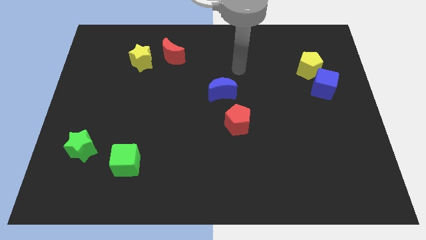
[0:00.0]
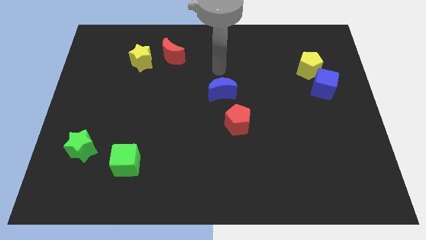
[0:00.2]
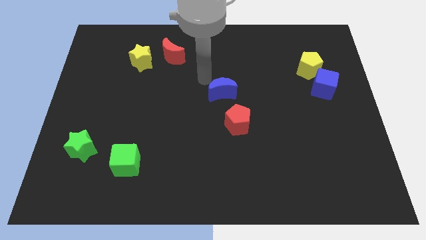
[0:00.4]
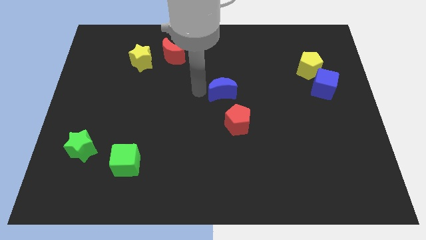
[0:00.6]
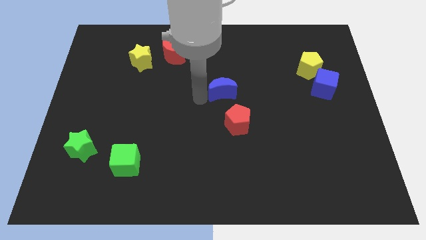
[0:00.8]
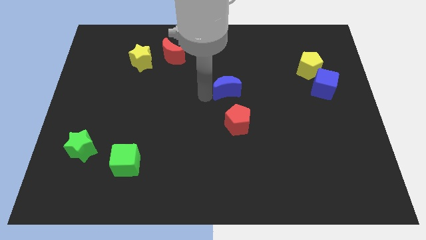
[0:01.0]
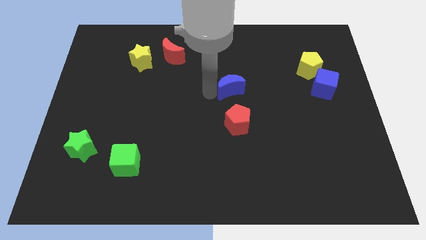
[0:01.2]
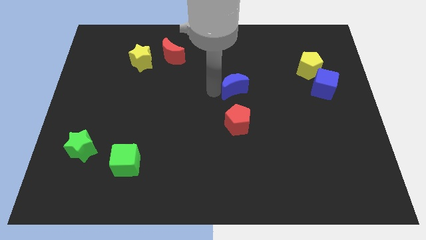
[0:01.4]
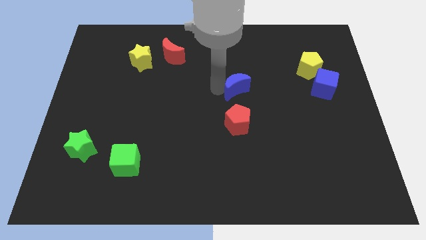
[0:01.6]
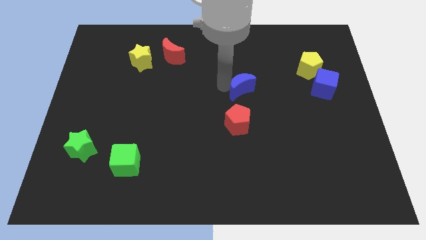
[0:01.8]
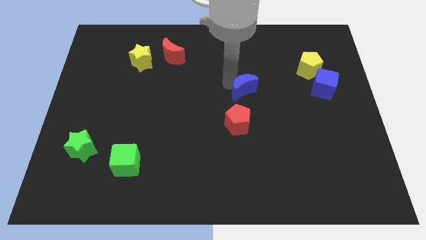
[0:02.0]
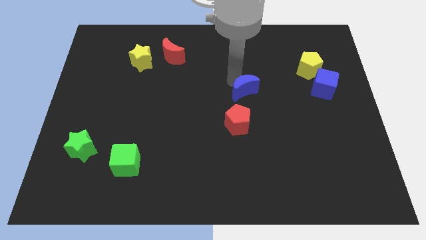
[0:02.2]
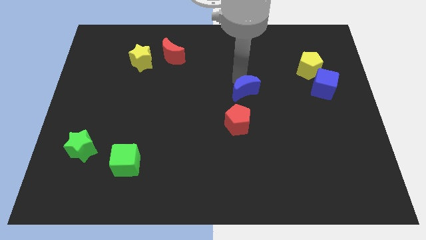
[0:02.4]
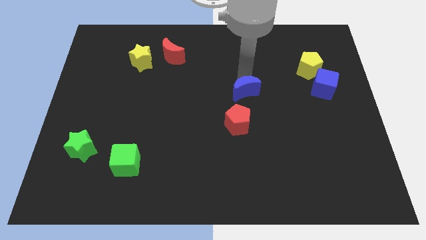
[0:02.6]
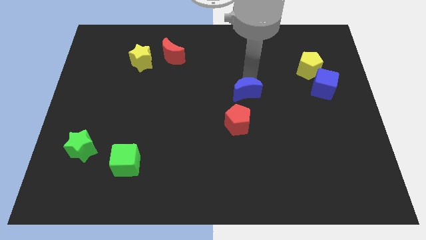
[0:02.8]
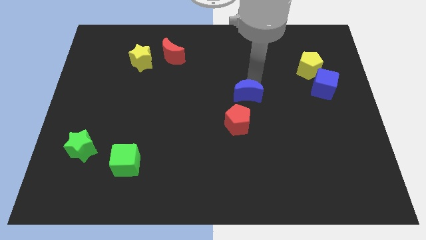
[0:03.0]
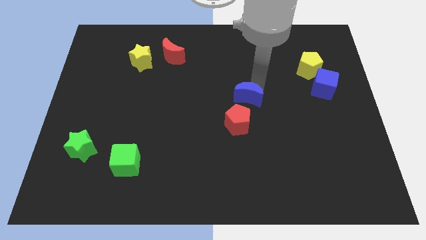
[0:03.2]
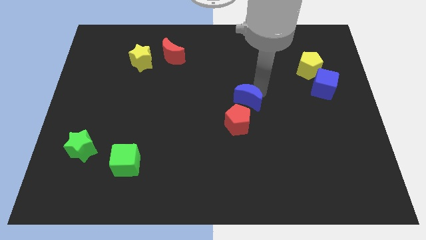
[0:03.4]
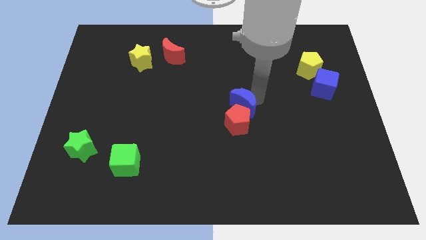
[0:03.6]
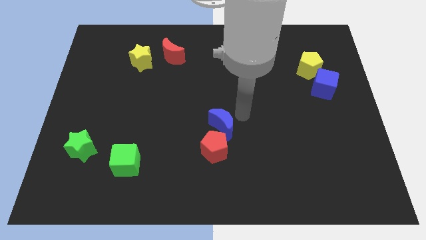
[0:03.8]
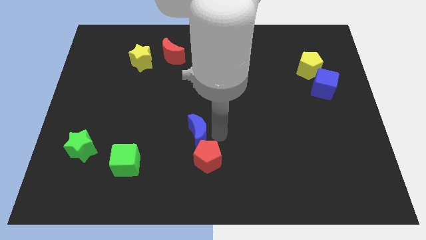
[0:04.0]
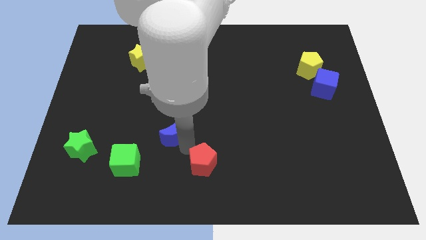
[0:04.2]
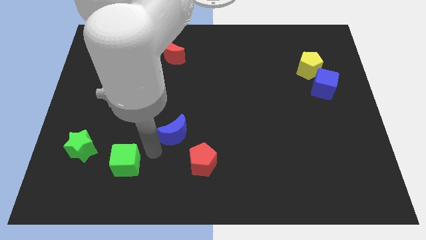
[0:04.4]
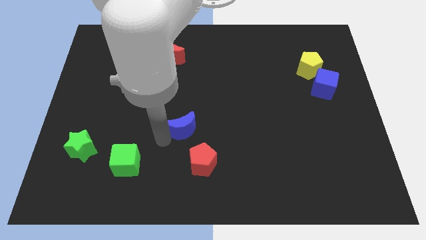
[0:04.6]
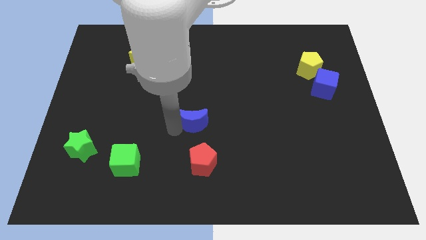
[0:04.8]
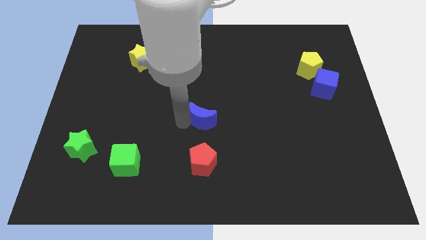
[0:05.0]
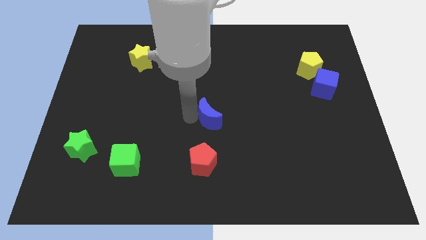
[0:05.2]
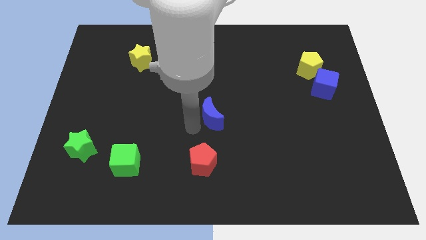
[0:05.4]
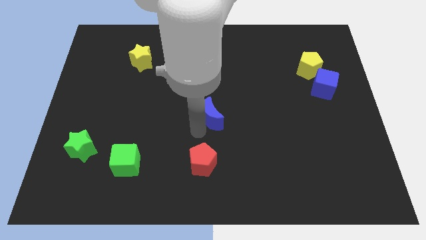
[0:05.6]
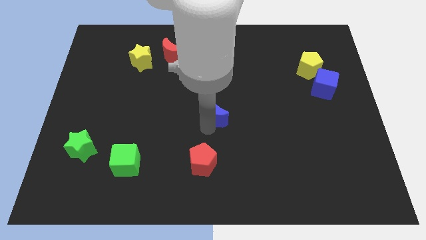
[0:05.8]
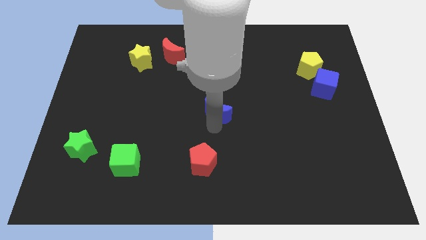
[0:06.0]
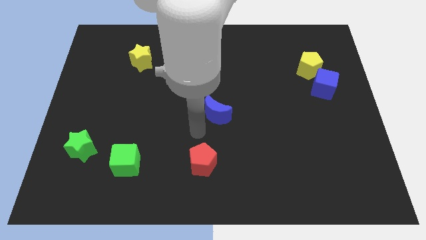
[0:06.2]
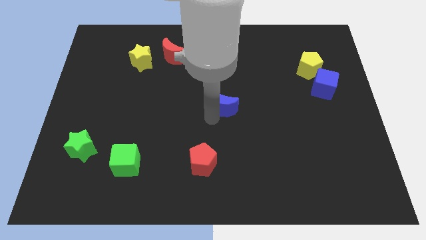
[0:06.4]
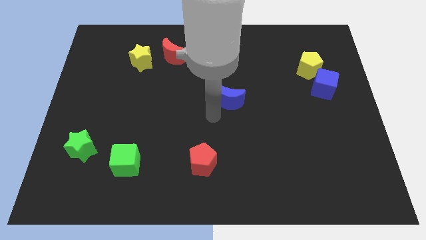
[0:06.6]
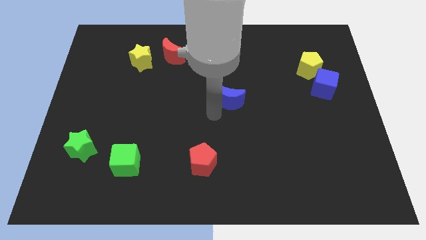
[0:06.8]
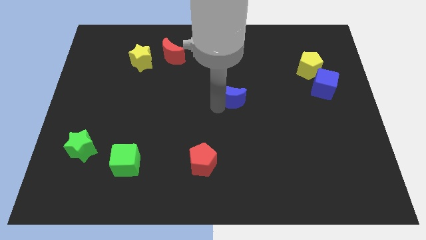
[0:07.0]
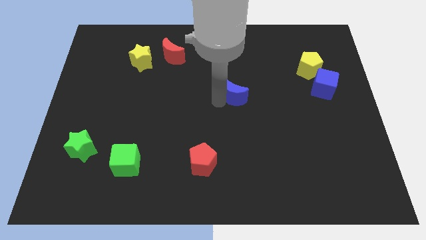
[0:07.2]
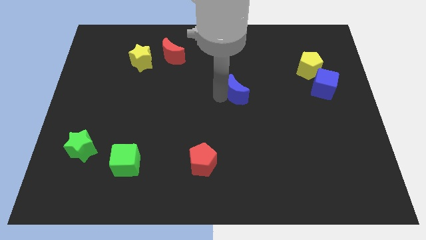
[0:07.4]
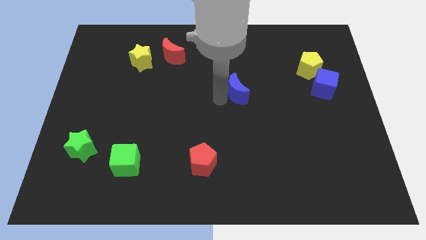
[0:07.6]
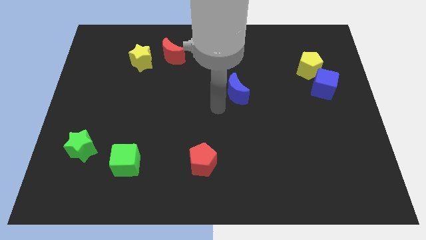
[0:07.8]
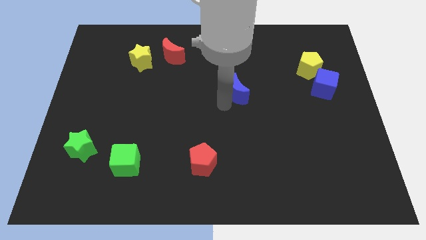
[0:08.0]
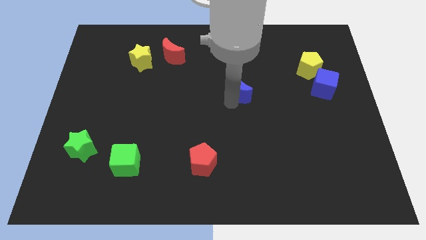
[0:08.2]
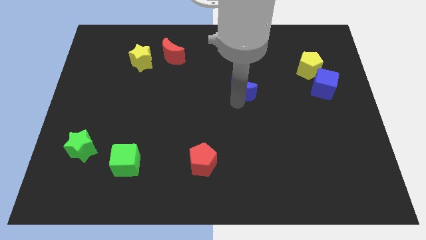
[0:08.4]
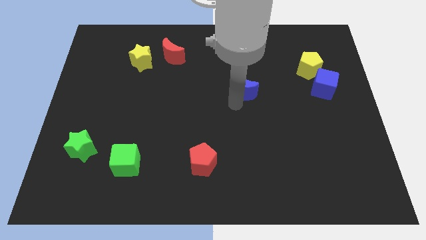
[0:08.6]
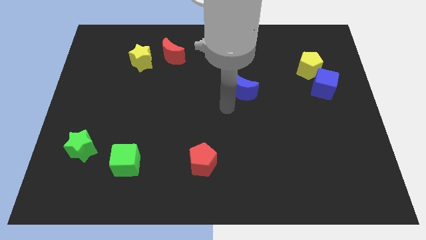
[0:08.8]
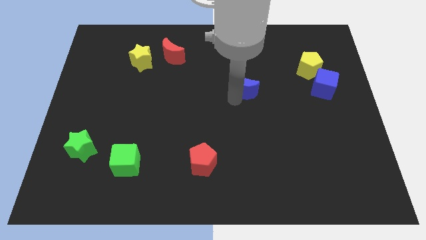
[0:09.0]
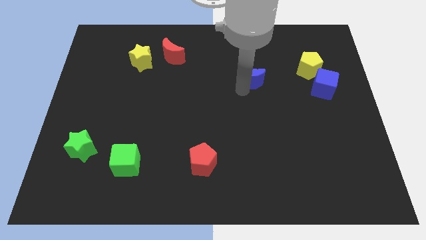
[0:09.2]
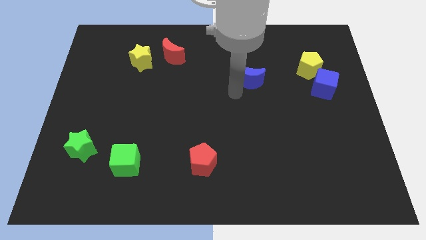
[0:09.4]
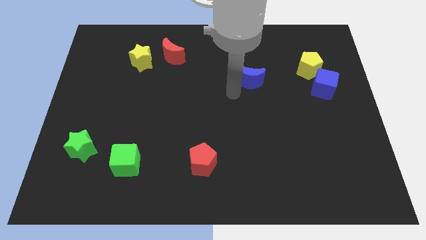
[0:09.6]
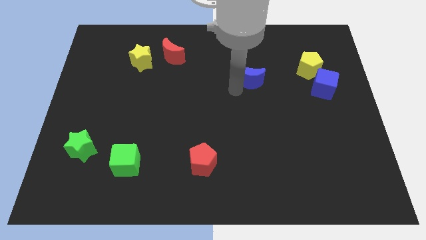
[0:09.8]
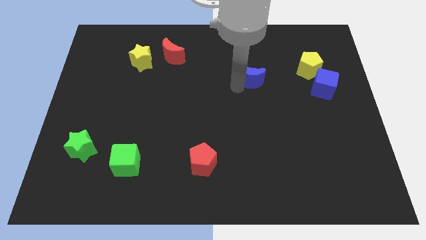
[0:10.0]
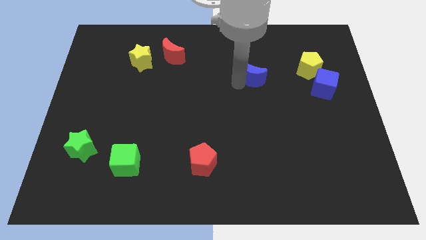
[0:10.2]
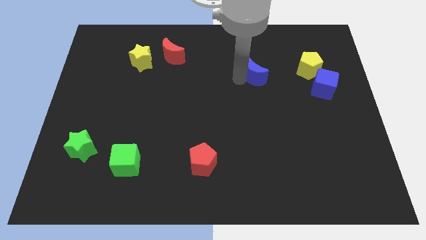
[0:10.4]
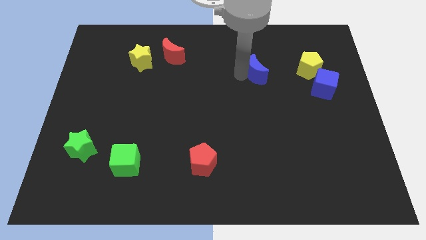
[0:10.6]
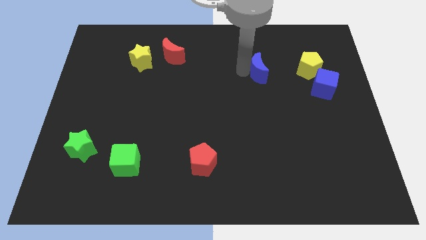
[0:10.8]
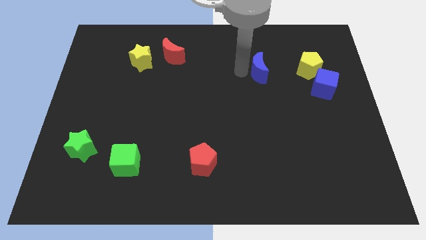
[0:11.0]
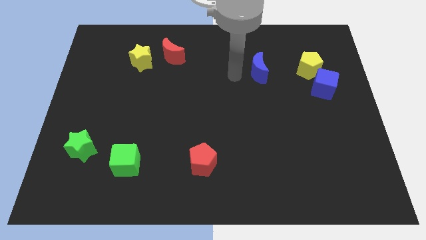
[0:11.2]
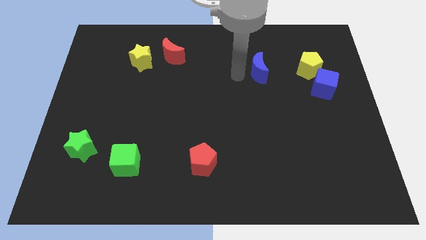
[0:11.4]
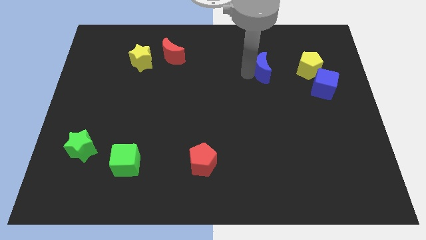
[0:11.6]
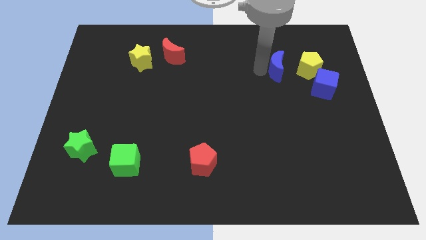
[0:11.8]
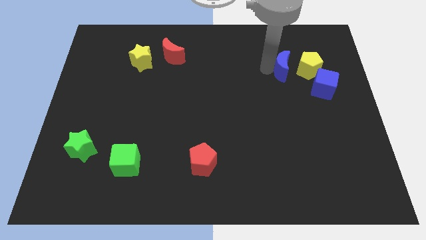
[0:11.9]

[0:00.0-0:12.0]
move the blue moon to the top left side of the blue cube

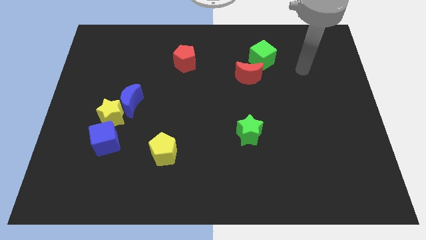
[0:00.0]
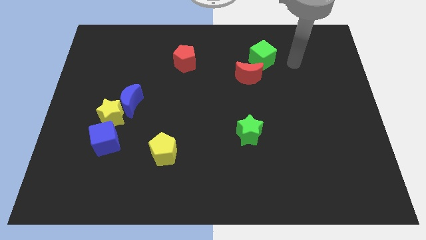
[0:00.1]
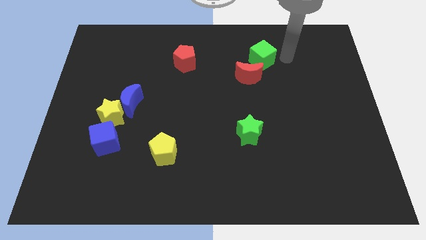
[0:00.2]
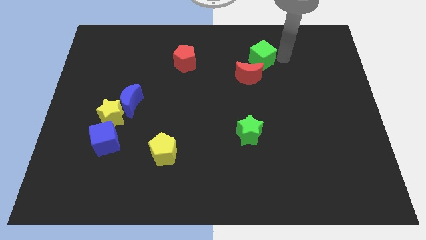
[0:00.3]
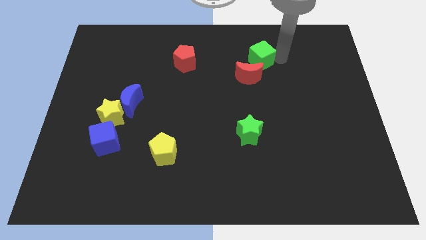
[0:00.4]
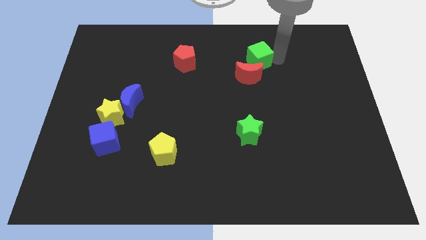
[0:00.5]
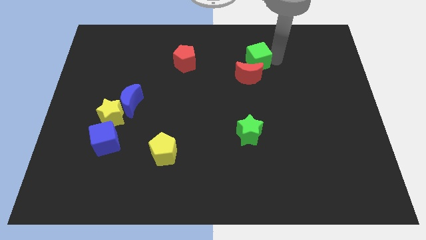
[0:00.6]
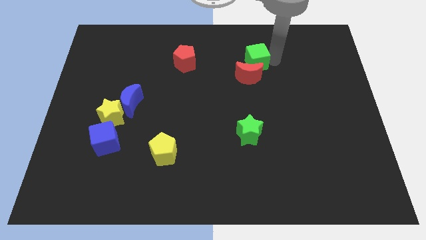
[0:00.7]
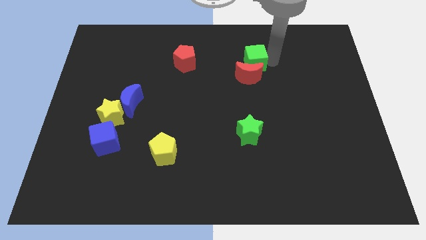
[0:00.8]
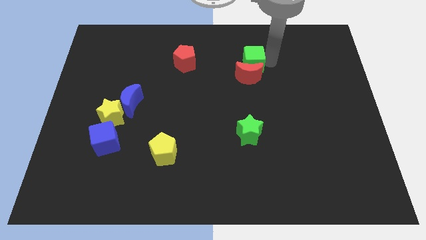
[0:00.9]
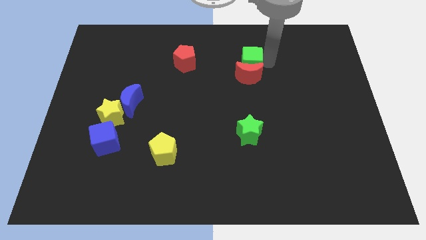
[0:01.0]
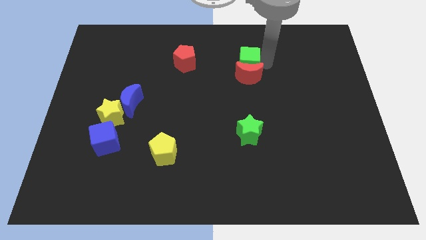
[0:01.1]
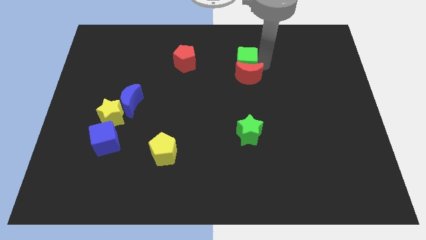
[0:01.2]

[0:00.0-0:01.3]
put the green cube just right of the red pentagon
